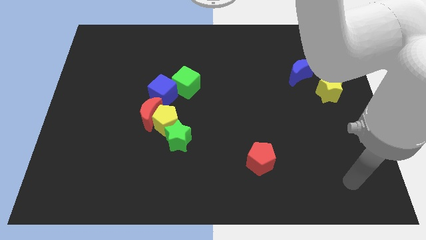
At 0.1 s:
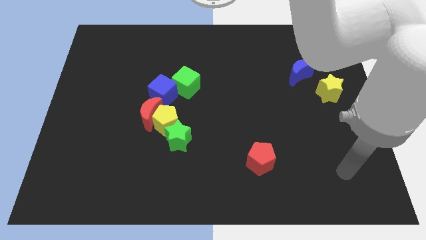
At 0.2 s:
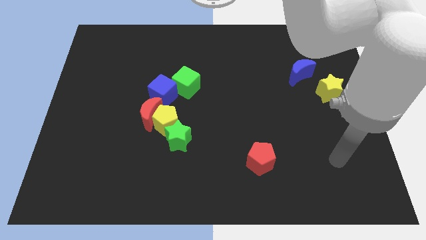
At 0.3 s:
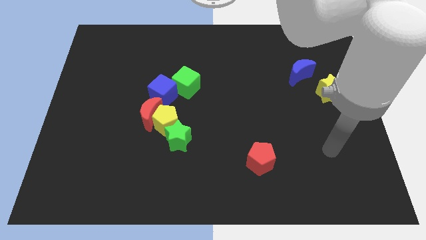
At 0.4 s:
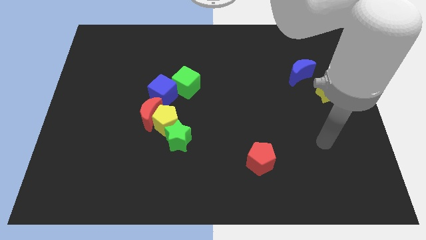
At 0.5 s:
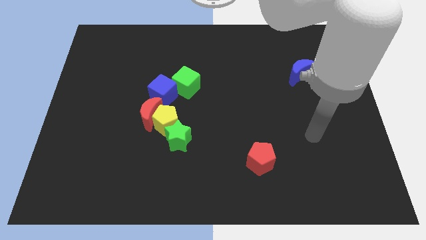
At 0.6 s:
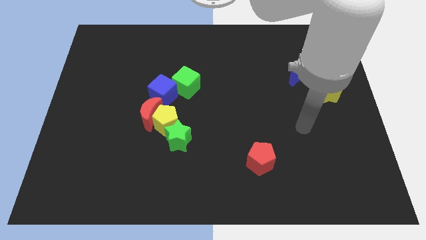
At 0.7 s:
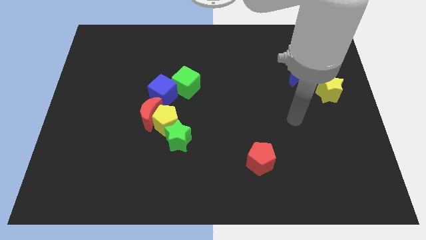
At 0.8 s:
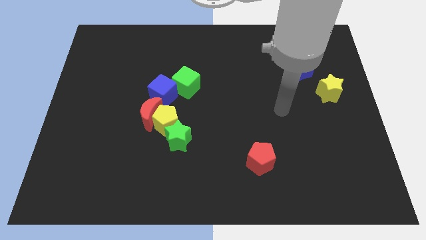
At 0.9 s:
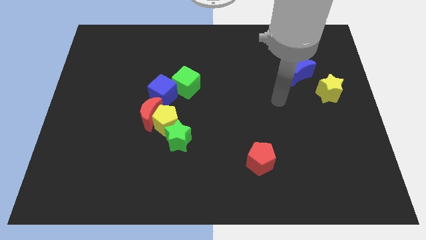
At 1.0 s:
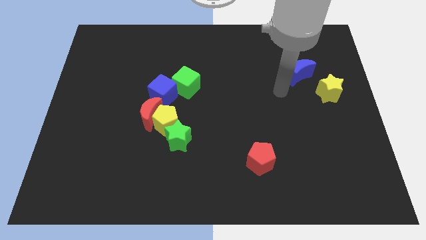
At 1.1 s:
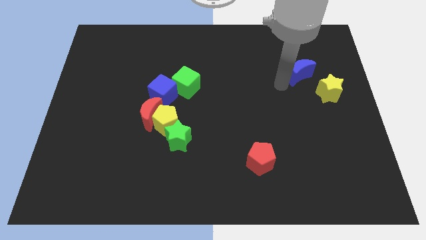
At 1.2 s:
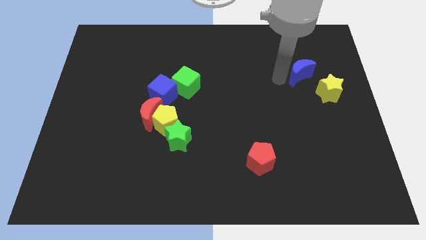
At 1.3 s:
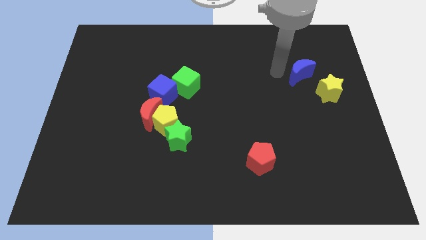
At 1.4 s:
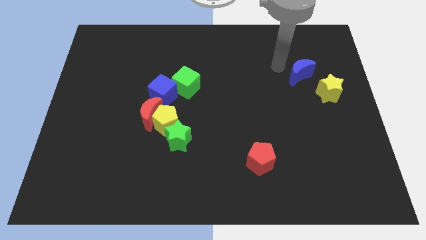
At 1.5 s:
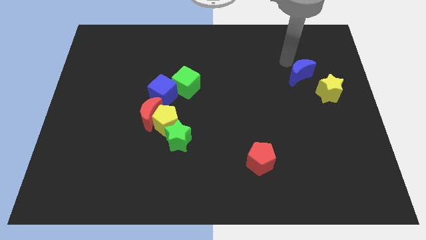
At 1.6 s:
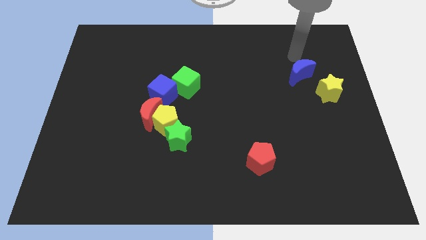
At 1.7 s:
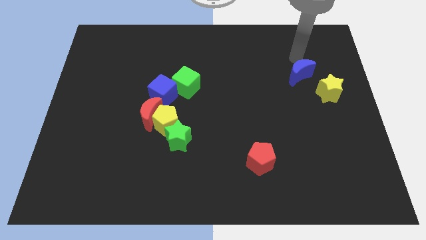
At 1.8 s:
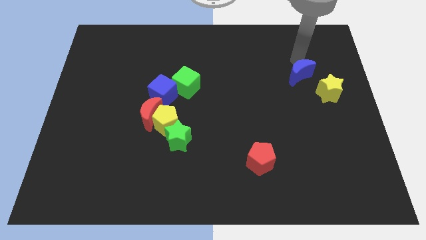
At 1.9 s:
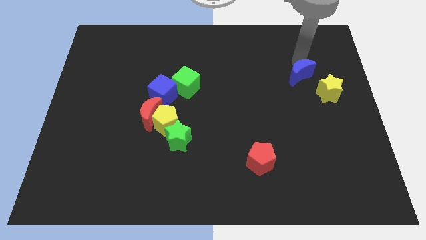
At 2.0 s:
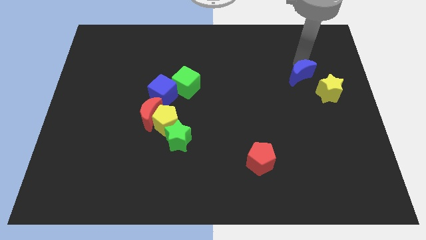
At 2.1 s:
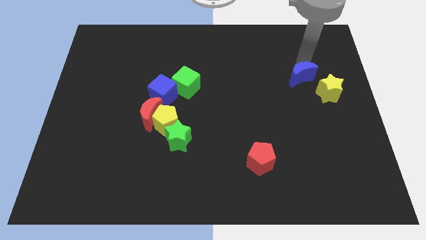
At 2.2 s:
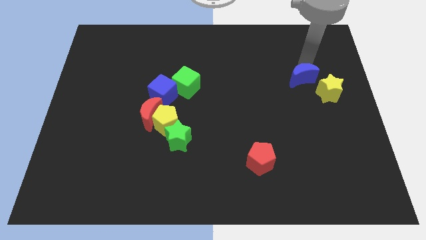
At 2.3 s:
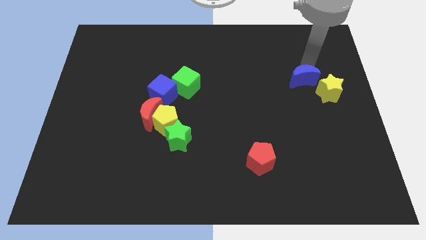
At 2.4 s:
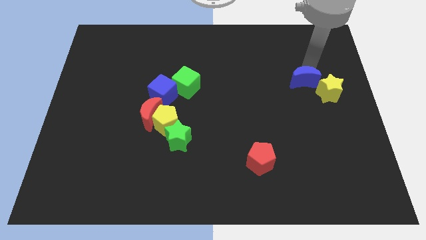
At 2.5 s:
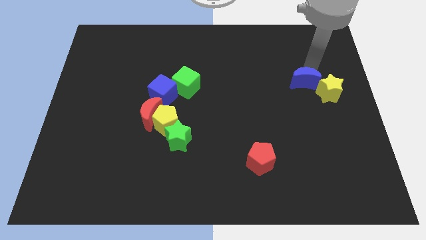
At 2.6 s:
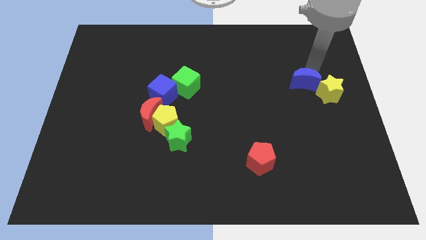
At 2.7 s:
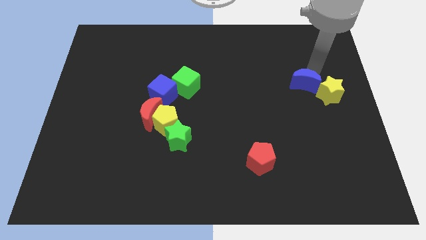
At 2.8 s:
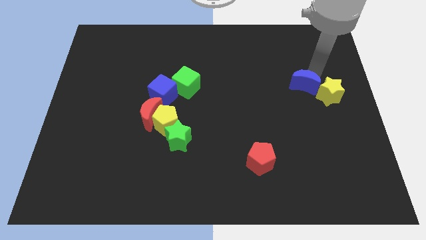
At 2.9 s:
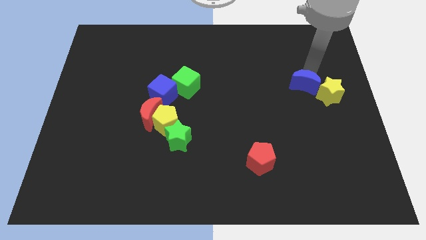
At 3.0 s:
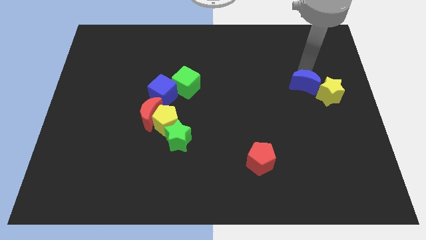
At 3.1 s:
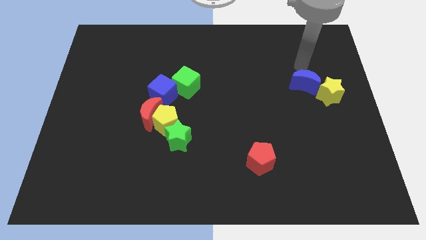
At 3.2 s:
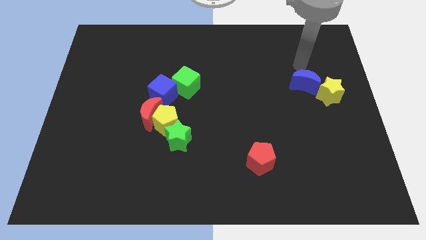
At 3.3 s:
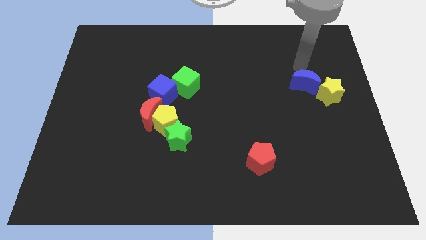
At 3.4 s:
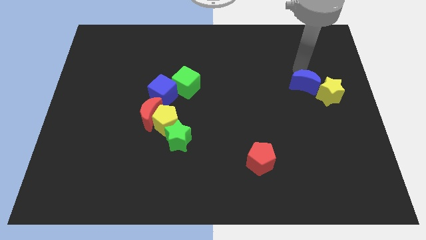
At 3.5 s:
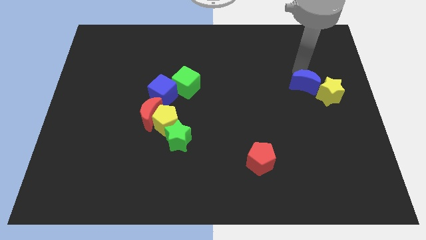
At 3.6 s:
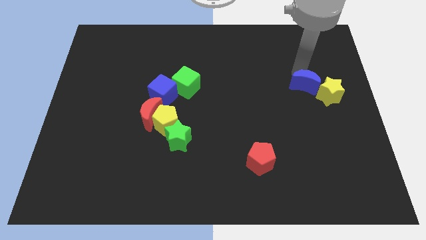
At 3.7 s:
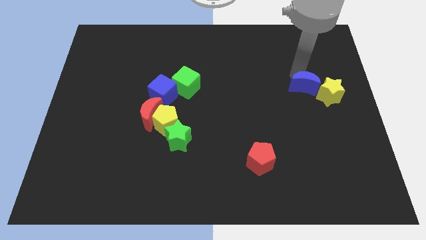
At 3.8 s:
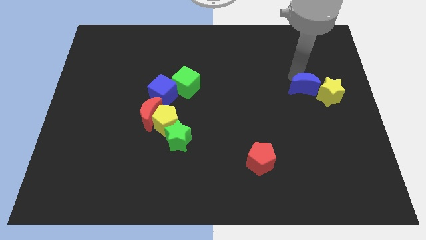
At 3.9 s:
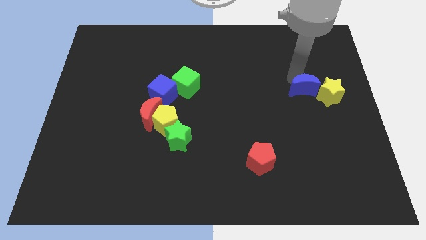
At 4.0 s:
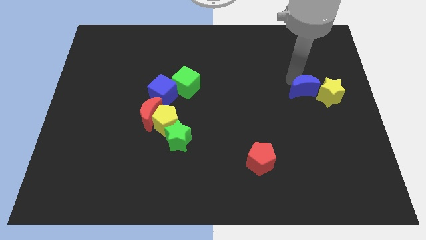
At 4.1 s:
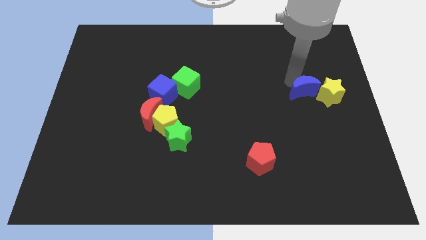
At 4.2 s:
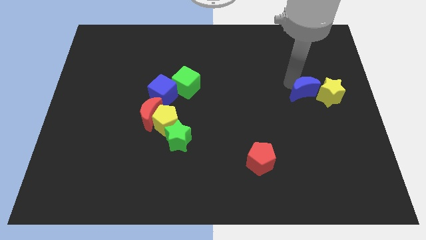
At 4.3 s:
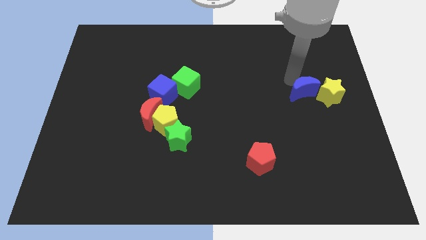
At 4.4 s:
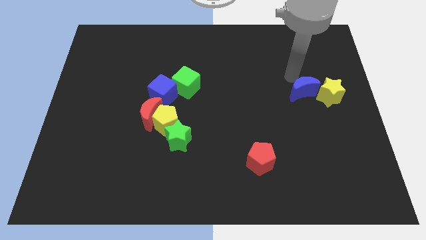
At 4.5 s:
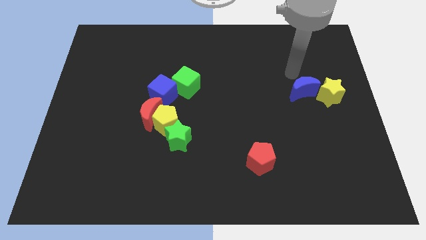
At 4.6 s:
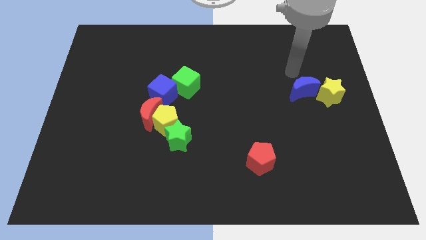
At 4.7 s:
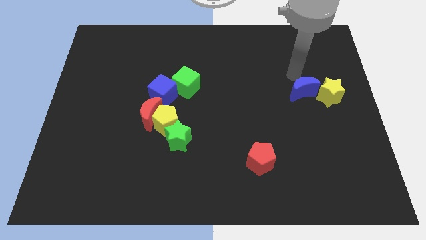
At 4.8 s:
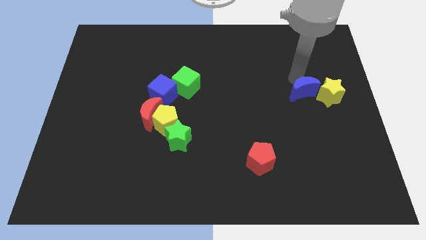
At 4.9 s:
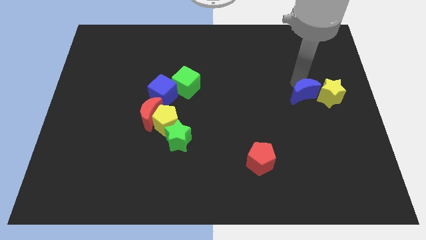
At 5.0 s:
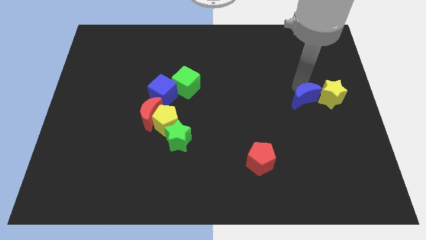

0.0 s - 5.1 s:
slide the blue moon a bit down

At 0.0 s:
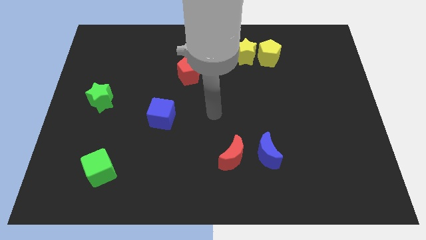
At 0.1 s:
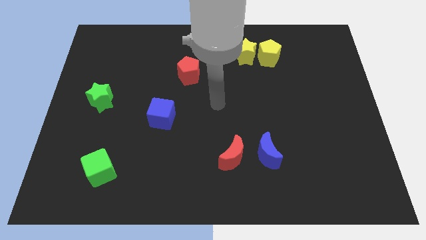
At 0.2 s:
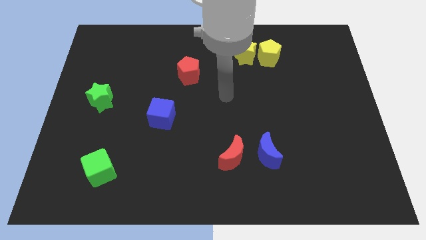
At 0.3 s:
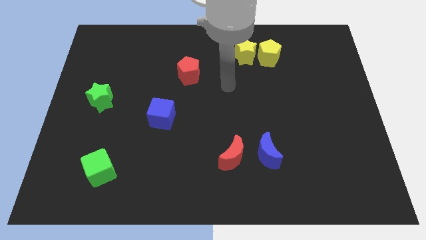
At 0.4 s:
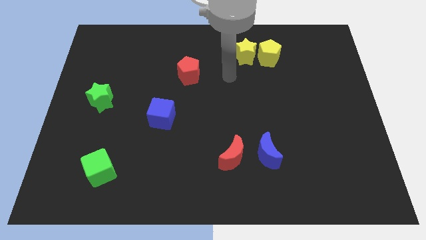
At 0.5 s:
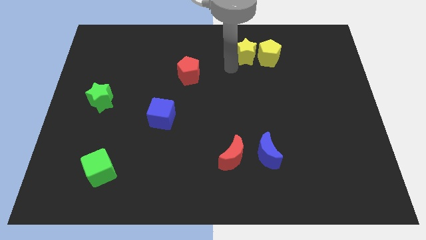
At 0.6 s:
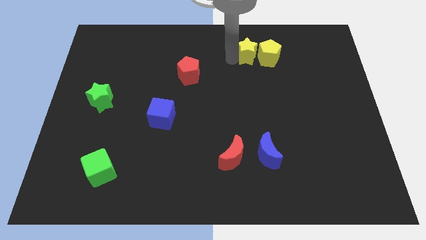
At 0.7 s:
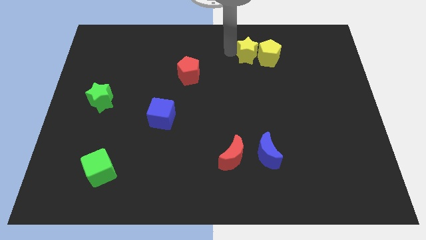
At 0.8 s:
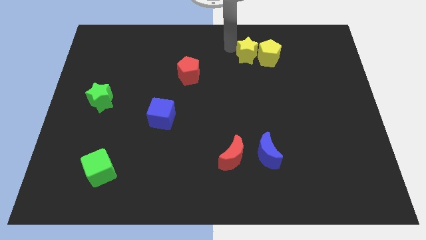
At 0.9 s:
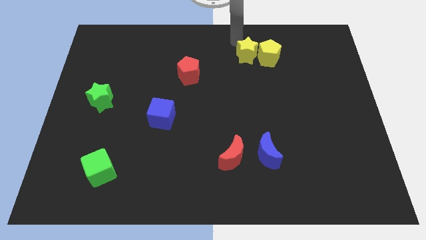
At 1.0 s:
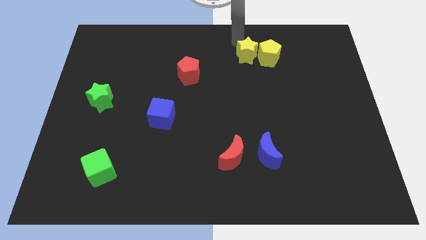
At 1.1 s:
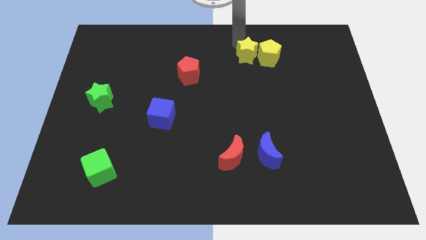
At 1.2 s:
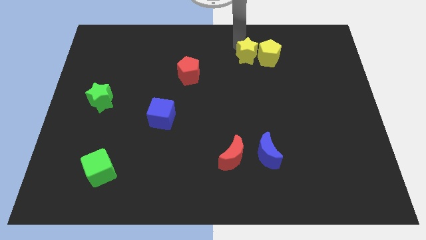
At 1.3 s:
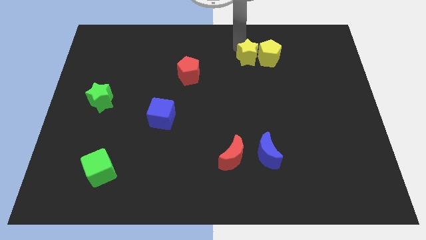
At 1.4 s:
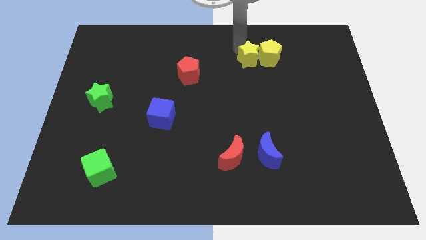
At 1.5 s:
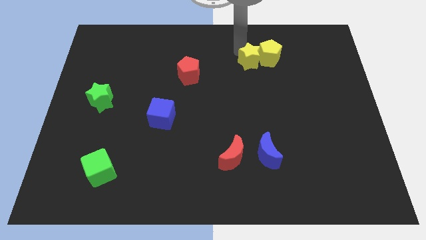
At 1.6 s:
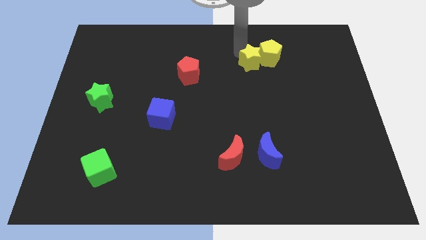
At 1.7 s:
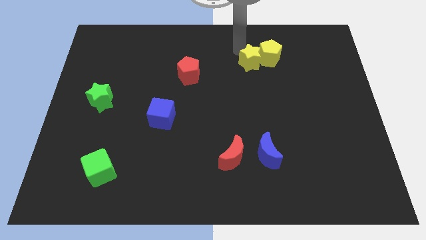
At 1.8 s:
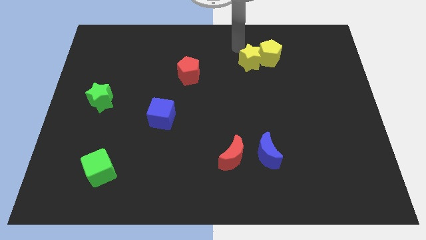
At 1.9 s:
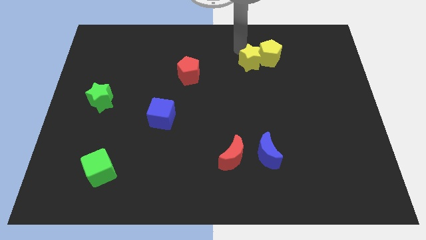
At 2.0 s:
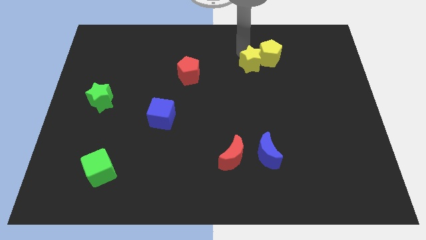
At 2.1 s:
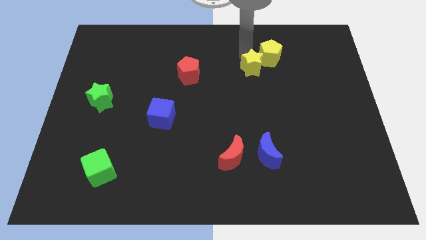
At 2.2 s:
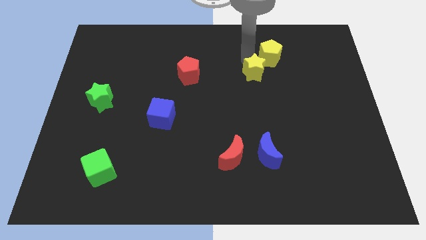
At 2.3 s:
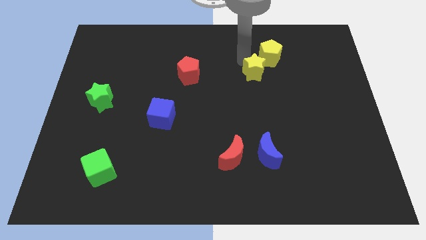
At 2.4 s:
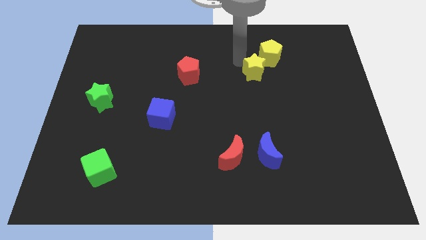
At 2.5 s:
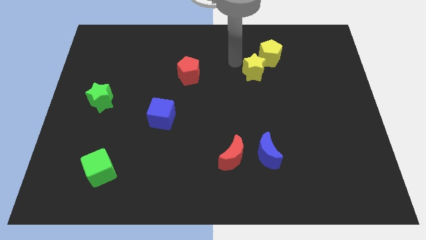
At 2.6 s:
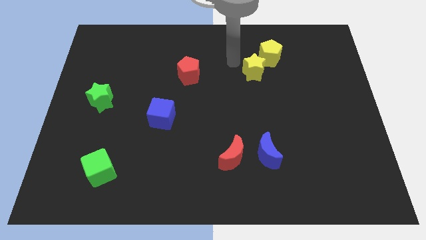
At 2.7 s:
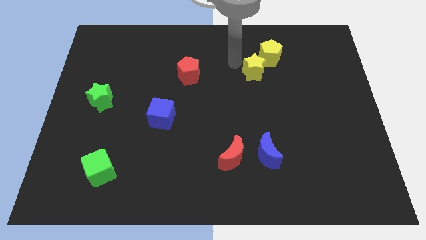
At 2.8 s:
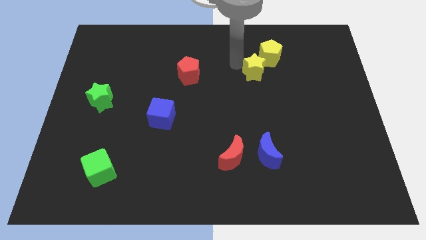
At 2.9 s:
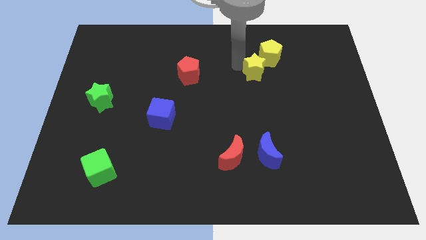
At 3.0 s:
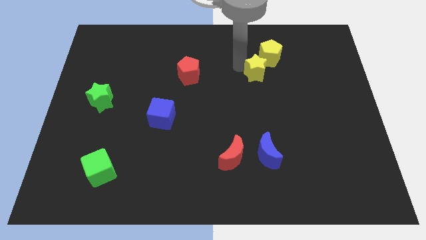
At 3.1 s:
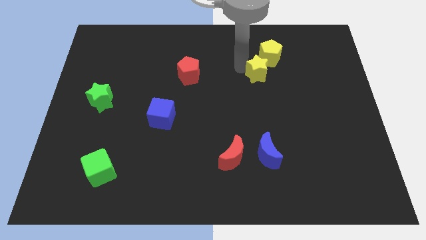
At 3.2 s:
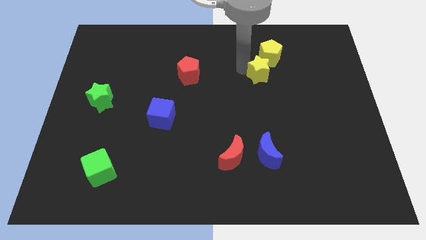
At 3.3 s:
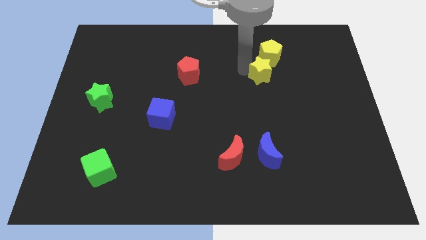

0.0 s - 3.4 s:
move the yellow star diagonally down and to the right a little bit
